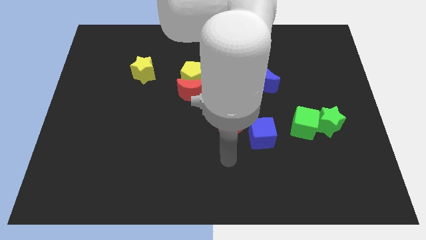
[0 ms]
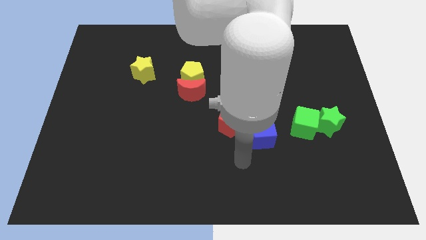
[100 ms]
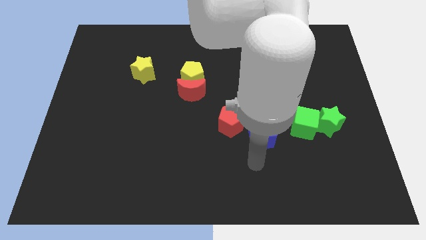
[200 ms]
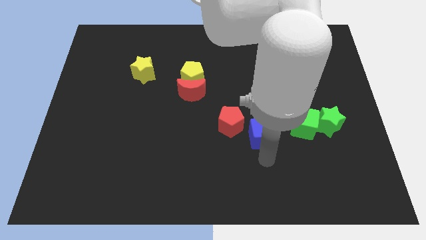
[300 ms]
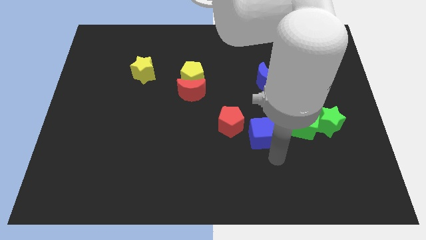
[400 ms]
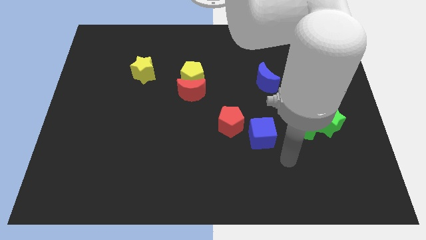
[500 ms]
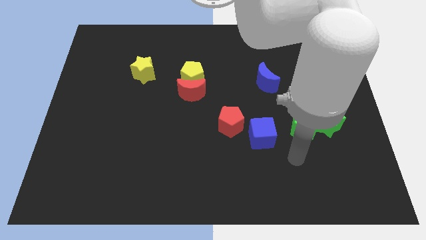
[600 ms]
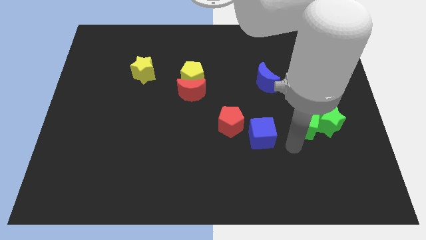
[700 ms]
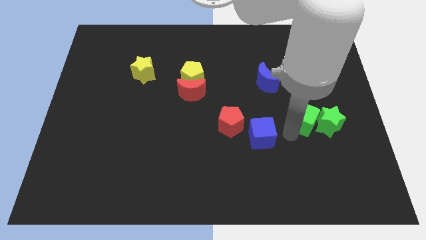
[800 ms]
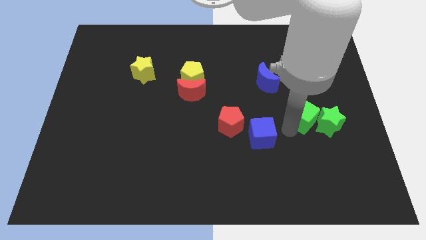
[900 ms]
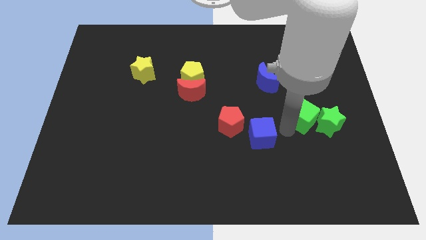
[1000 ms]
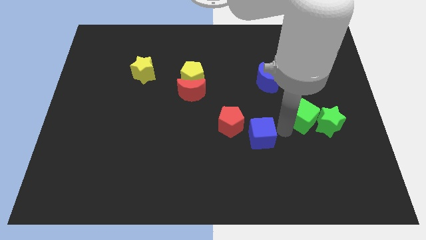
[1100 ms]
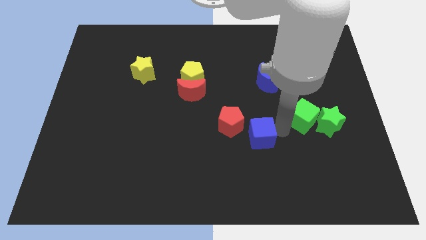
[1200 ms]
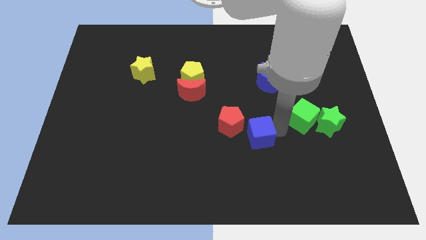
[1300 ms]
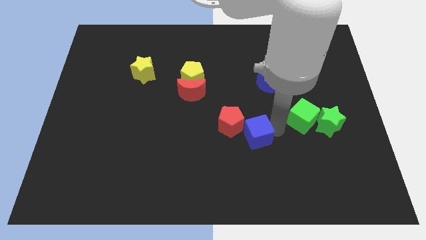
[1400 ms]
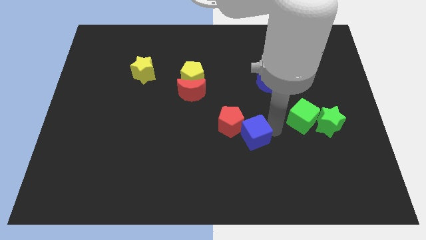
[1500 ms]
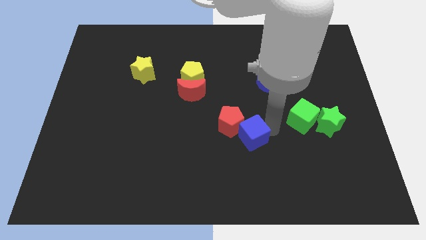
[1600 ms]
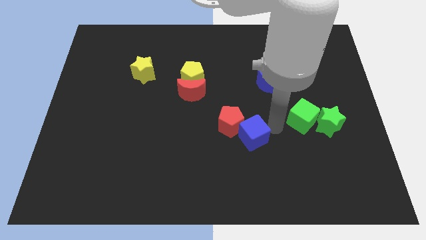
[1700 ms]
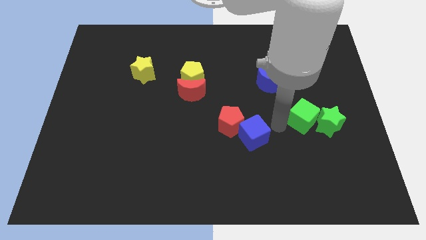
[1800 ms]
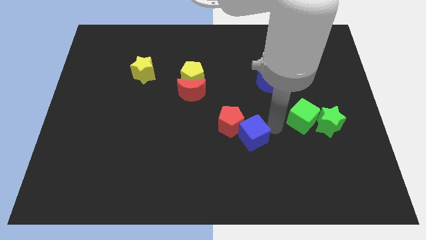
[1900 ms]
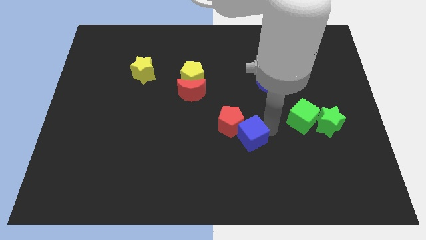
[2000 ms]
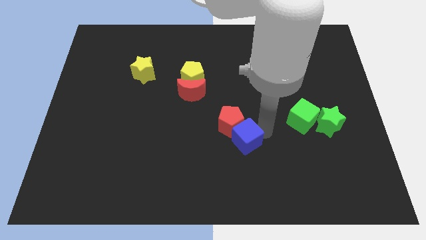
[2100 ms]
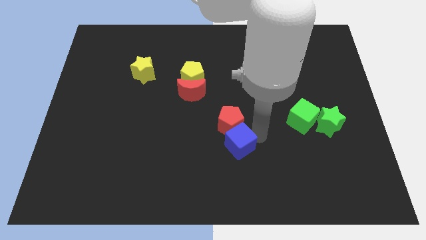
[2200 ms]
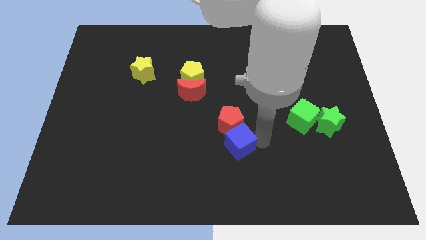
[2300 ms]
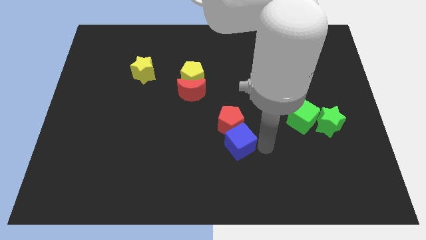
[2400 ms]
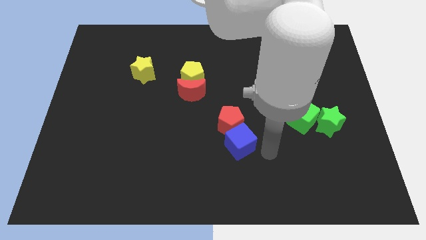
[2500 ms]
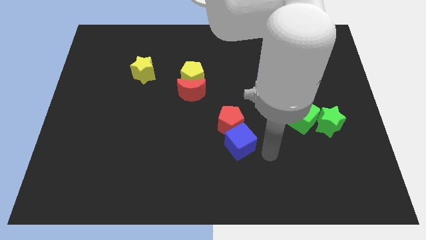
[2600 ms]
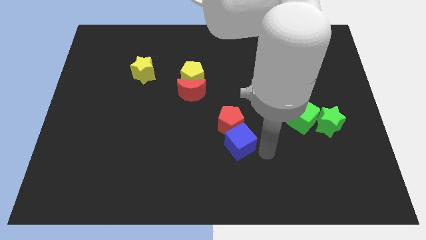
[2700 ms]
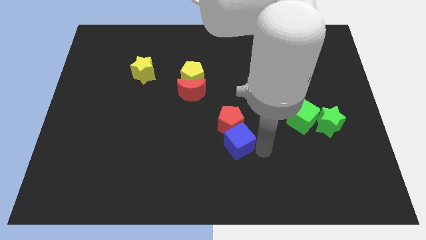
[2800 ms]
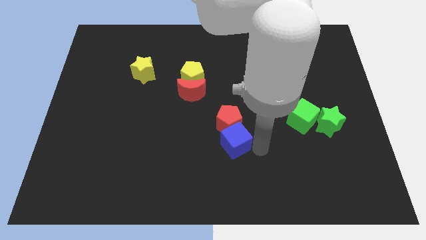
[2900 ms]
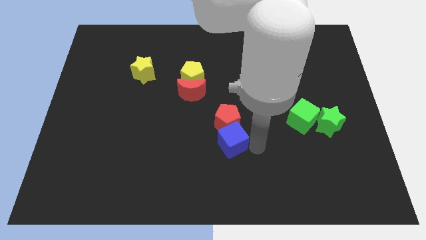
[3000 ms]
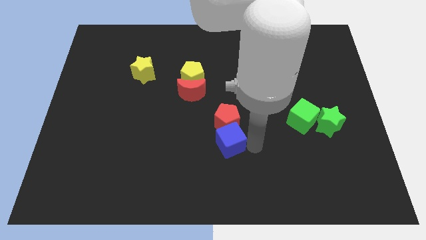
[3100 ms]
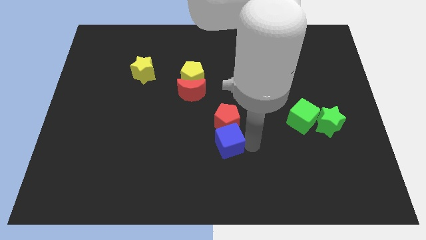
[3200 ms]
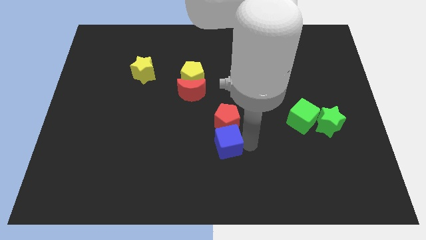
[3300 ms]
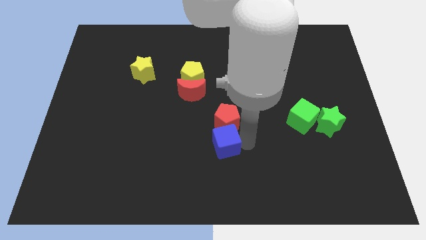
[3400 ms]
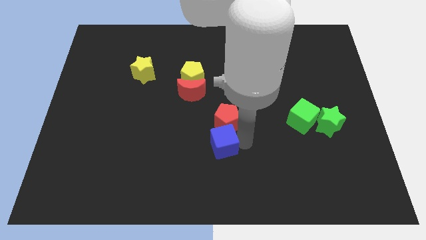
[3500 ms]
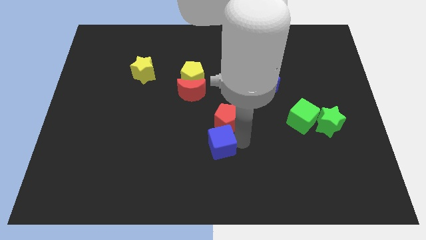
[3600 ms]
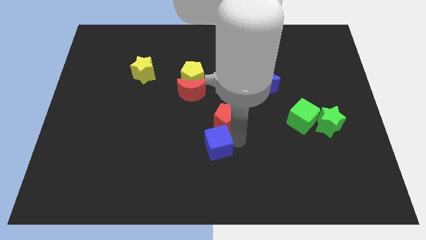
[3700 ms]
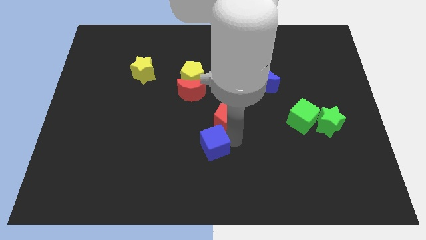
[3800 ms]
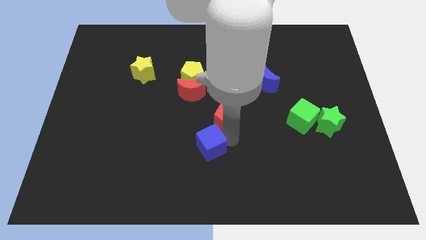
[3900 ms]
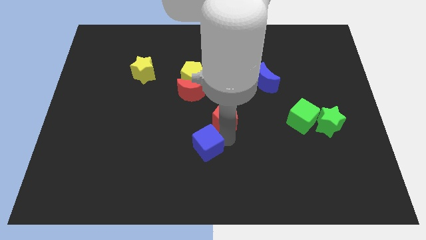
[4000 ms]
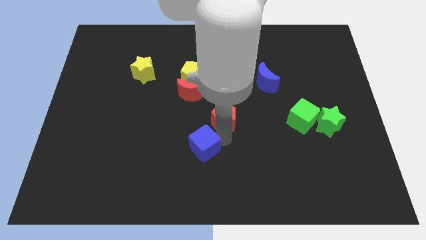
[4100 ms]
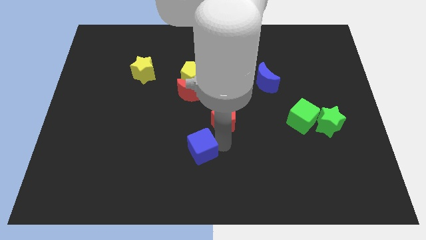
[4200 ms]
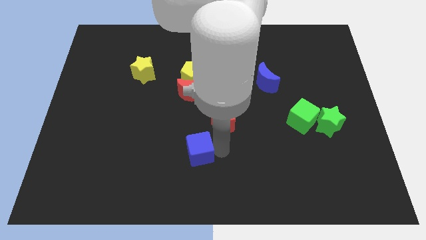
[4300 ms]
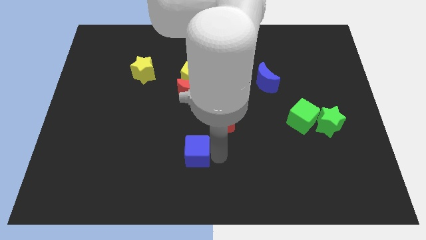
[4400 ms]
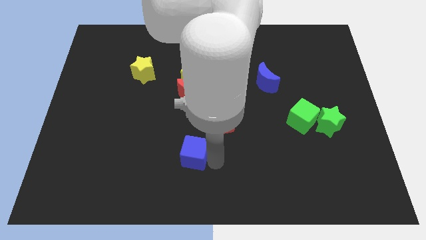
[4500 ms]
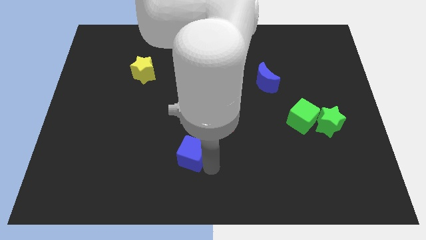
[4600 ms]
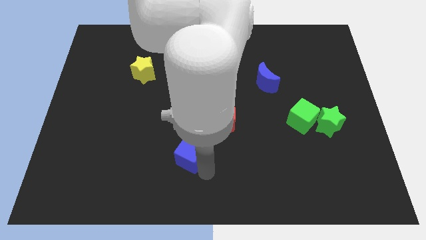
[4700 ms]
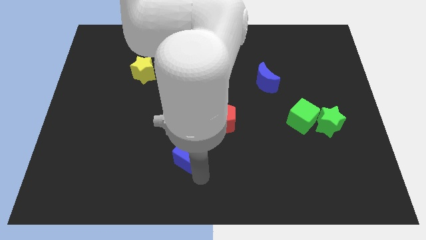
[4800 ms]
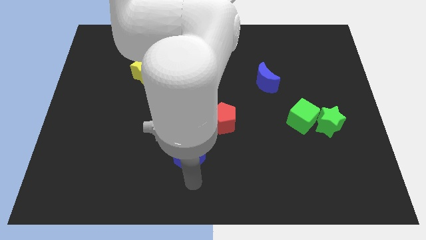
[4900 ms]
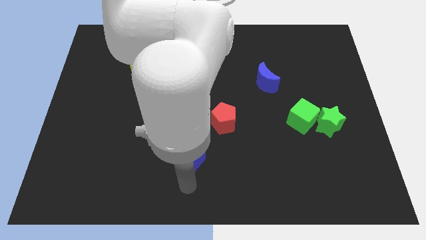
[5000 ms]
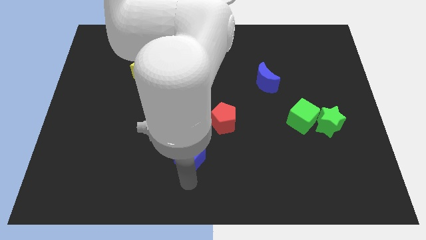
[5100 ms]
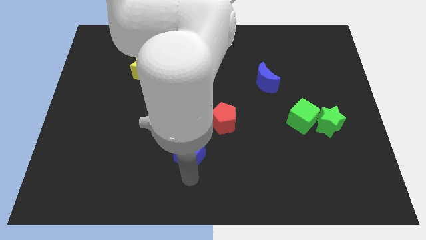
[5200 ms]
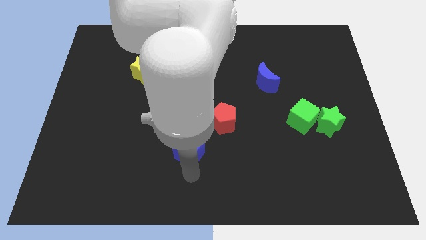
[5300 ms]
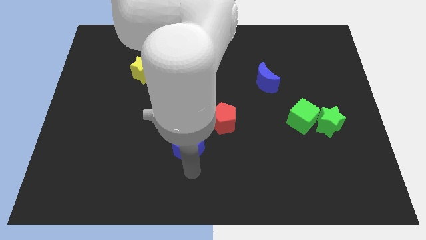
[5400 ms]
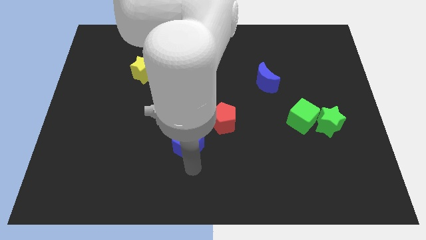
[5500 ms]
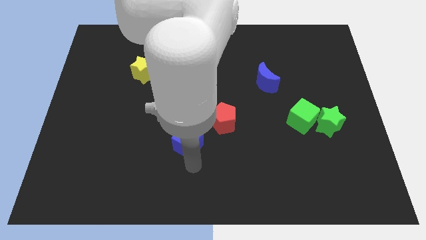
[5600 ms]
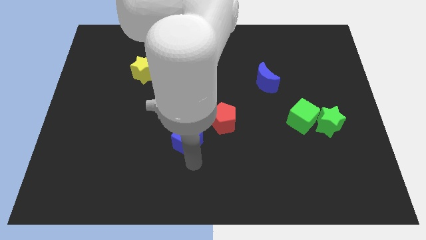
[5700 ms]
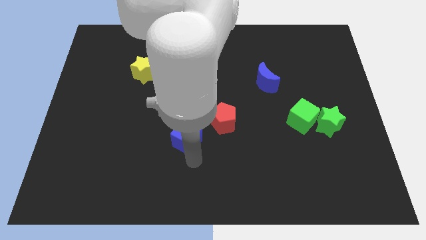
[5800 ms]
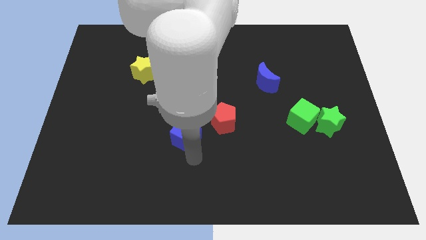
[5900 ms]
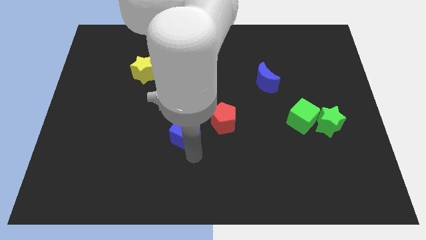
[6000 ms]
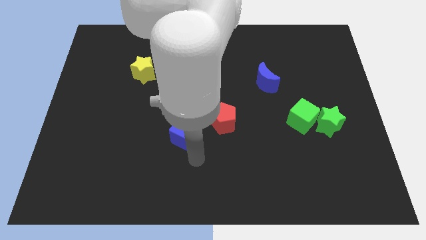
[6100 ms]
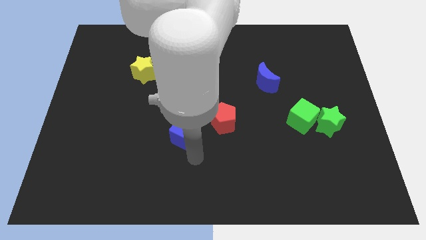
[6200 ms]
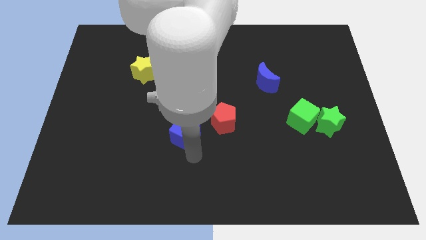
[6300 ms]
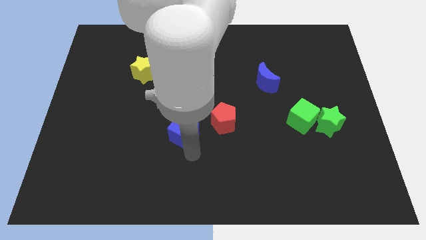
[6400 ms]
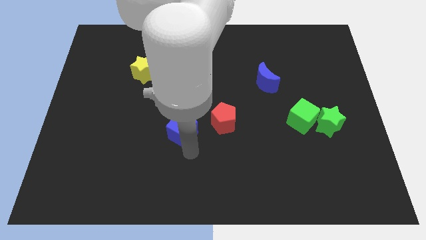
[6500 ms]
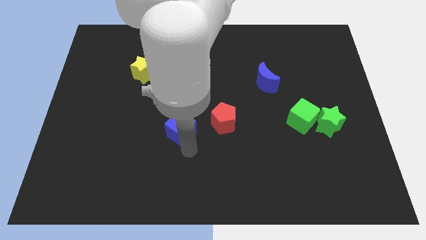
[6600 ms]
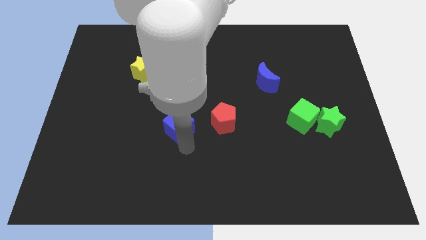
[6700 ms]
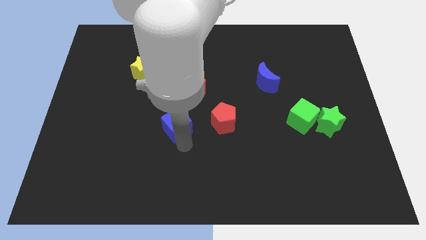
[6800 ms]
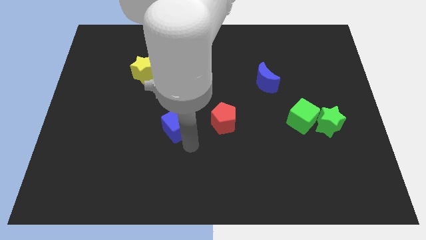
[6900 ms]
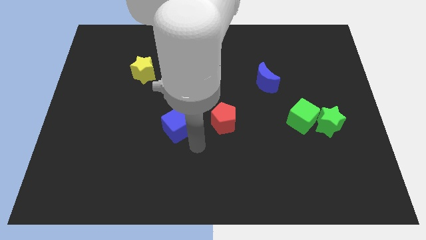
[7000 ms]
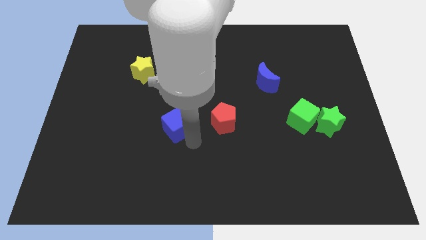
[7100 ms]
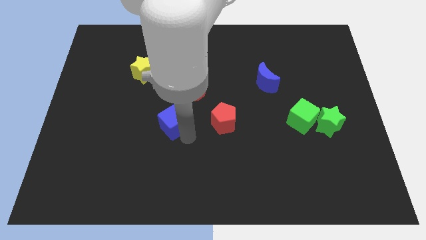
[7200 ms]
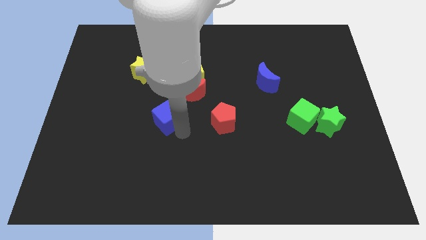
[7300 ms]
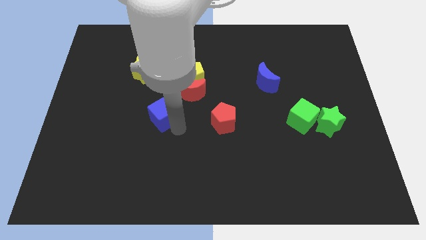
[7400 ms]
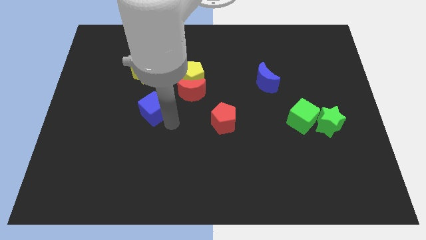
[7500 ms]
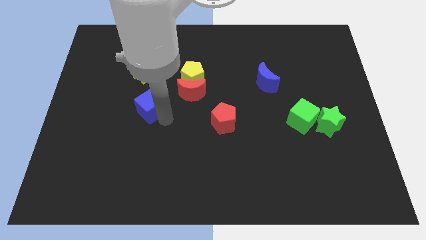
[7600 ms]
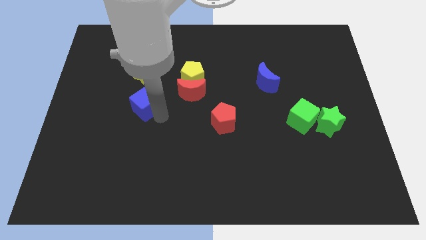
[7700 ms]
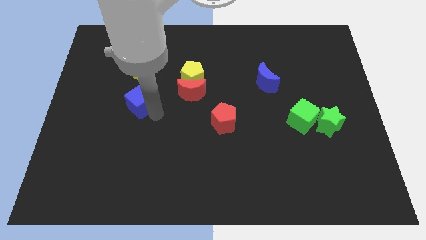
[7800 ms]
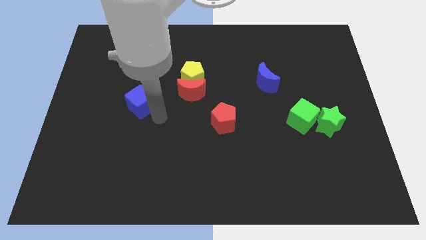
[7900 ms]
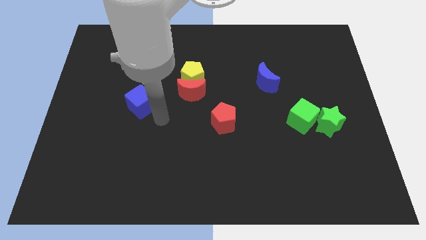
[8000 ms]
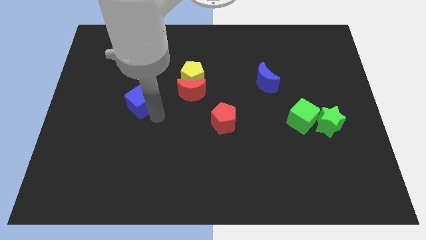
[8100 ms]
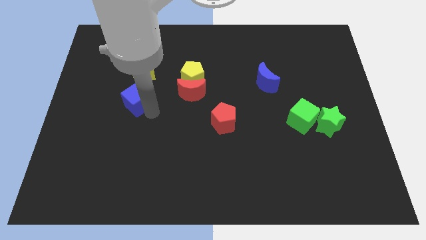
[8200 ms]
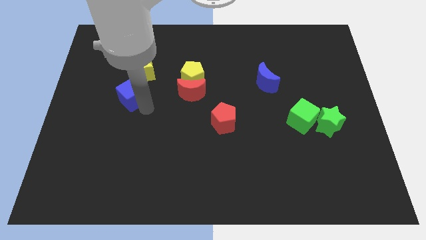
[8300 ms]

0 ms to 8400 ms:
push the blue cube to the bottom left side of the yellow star
